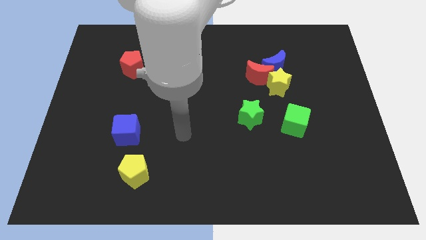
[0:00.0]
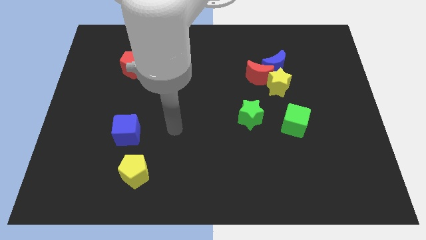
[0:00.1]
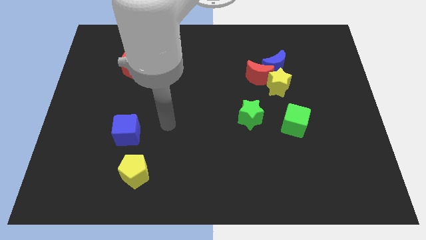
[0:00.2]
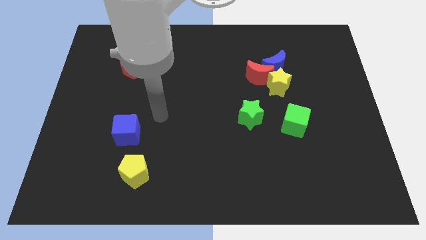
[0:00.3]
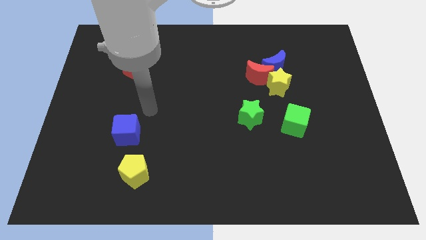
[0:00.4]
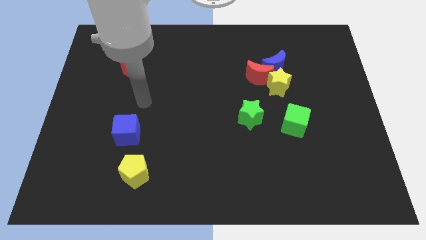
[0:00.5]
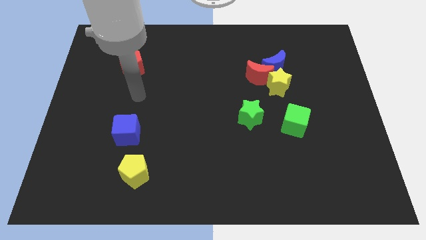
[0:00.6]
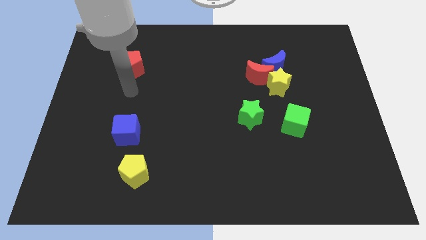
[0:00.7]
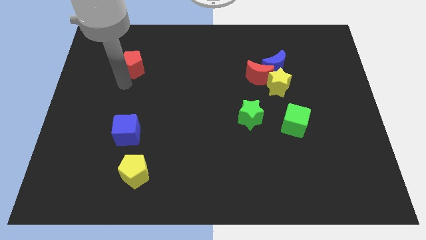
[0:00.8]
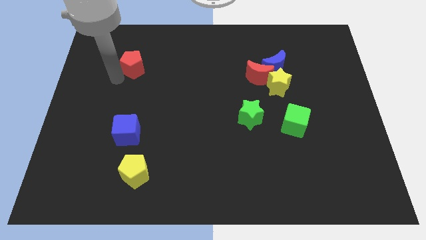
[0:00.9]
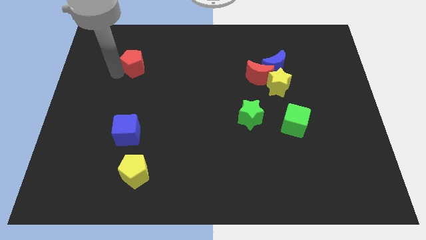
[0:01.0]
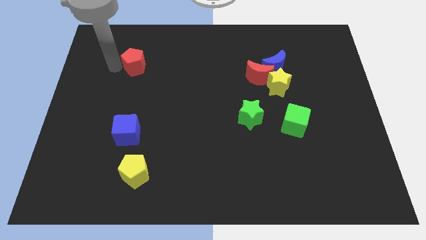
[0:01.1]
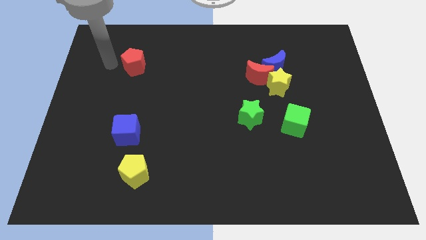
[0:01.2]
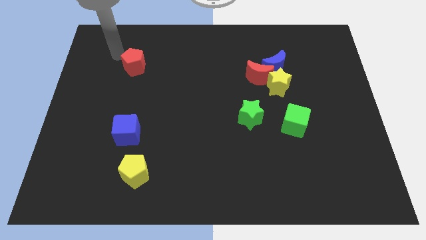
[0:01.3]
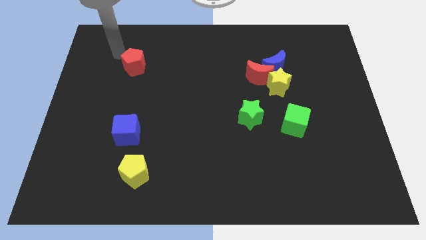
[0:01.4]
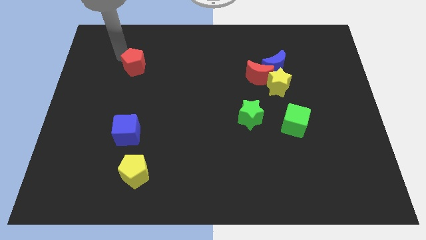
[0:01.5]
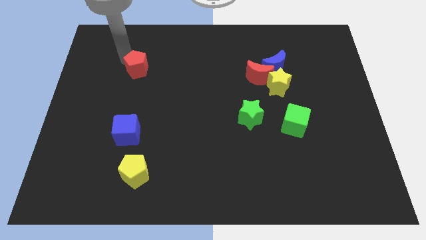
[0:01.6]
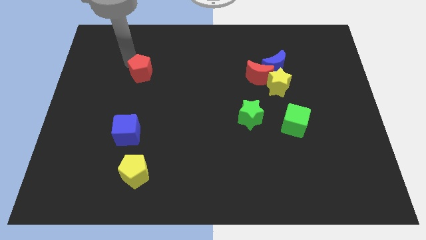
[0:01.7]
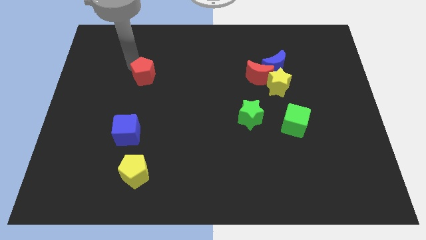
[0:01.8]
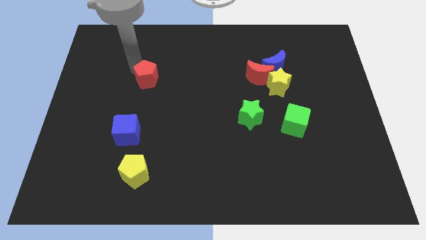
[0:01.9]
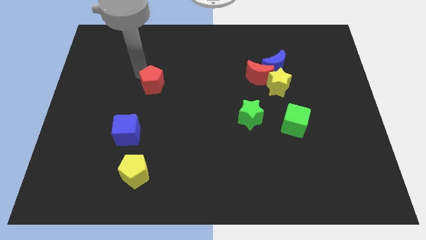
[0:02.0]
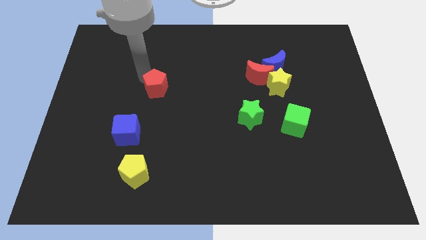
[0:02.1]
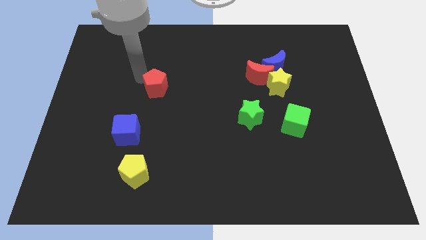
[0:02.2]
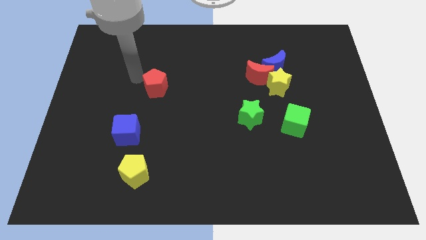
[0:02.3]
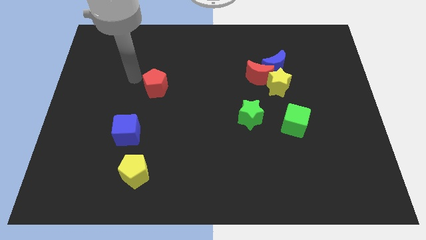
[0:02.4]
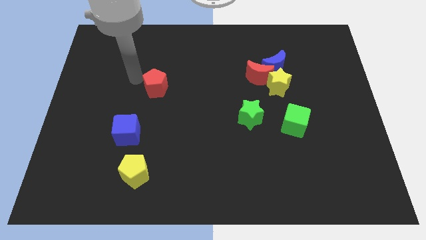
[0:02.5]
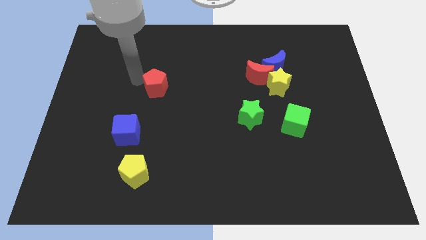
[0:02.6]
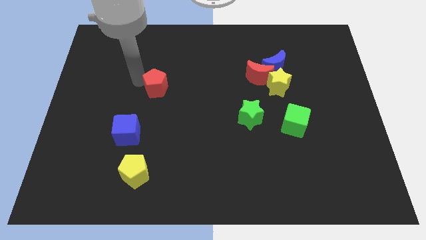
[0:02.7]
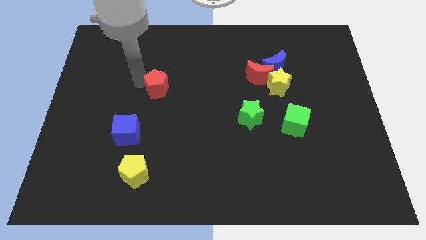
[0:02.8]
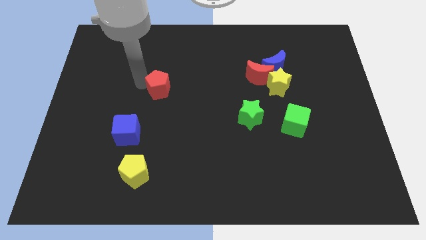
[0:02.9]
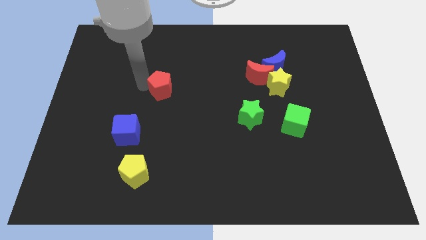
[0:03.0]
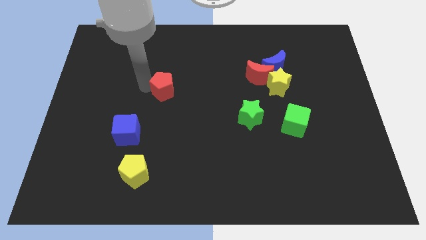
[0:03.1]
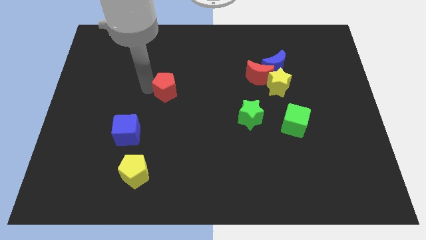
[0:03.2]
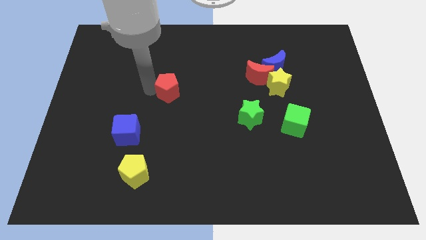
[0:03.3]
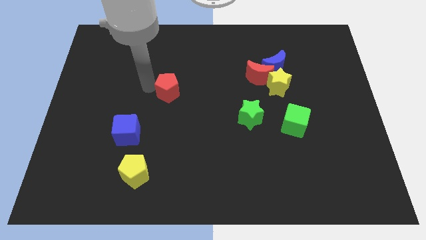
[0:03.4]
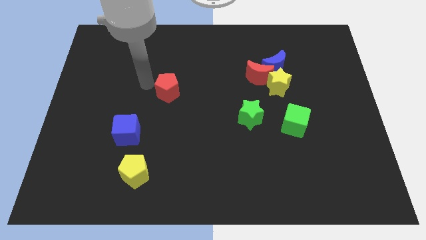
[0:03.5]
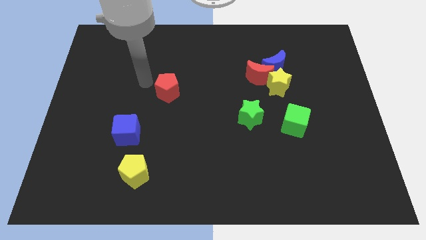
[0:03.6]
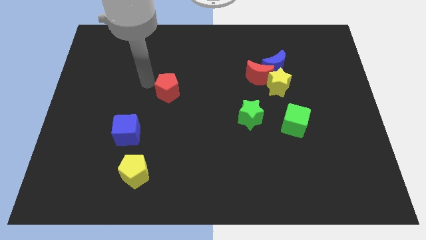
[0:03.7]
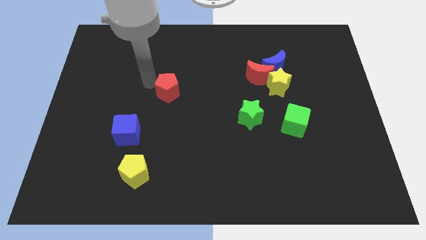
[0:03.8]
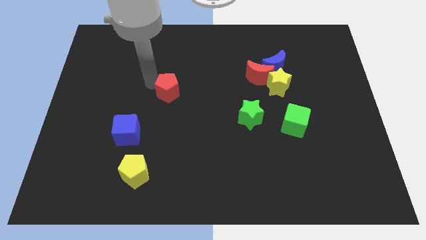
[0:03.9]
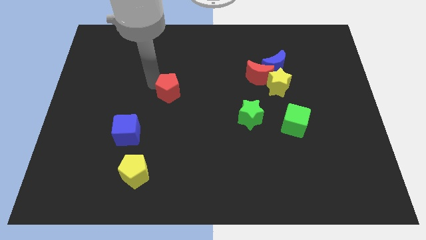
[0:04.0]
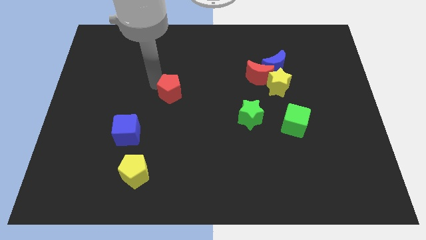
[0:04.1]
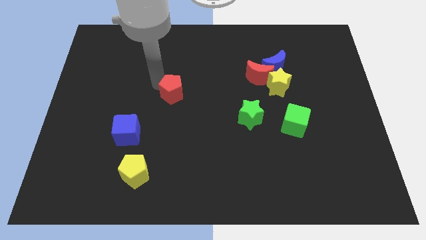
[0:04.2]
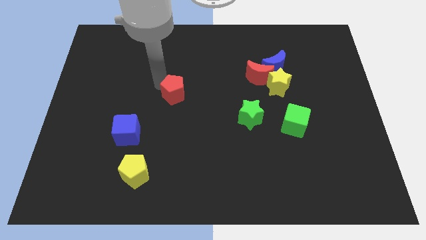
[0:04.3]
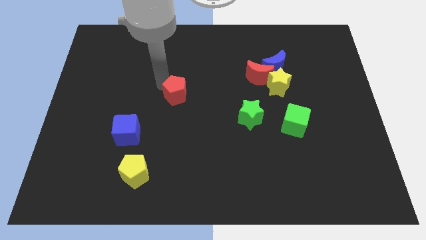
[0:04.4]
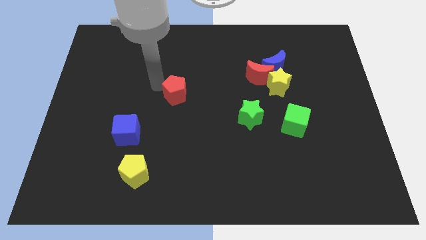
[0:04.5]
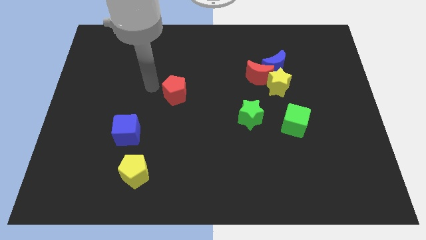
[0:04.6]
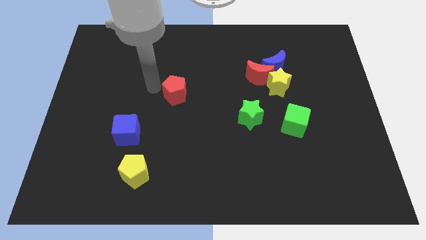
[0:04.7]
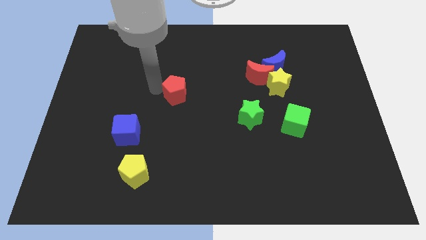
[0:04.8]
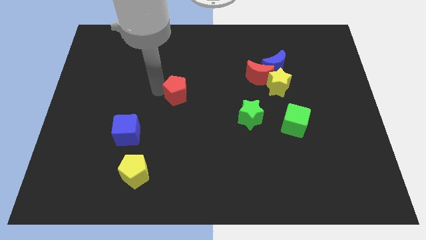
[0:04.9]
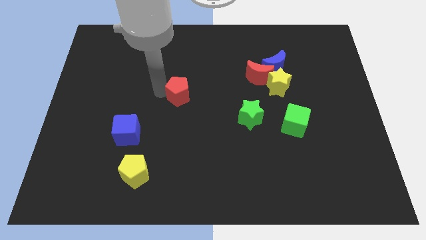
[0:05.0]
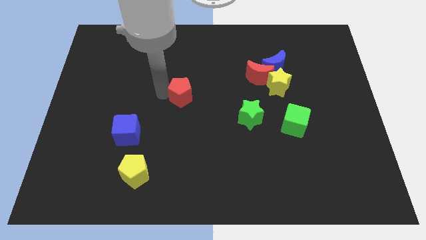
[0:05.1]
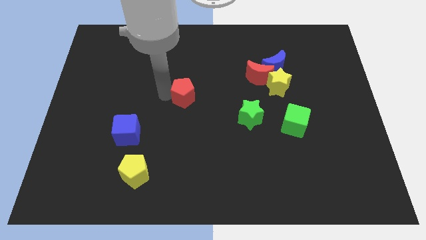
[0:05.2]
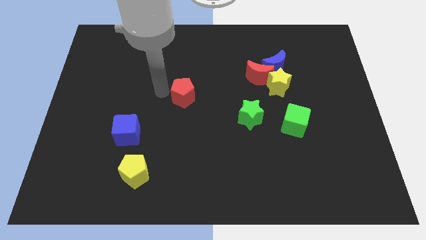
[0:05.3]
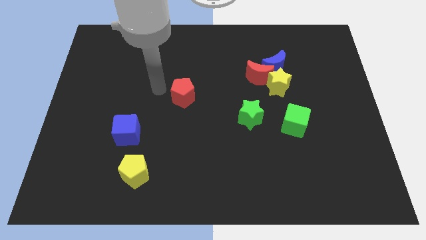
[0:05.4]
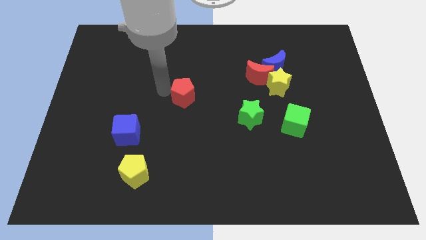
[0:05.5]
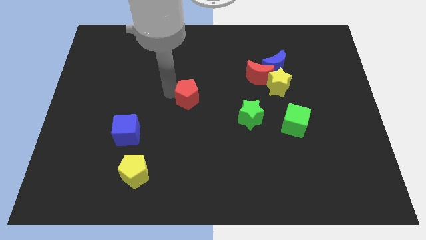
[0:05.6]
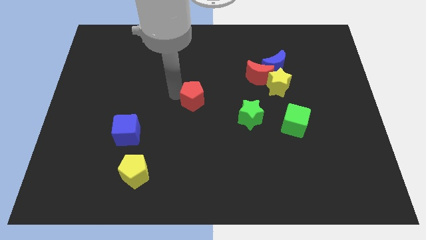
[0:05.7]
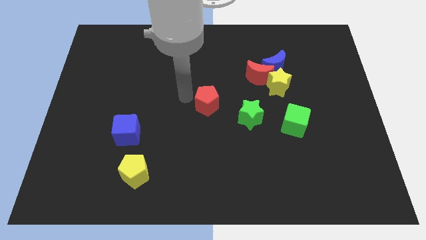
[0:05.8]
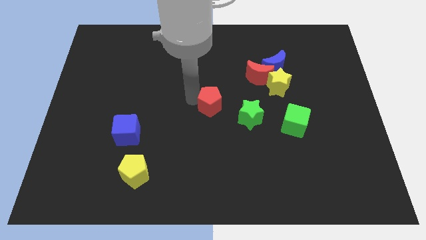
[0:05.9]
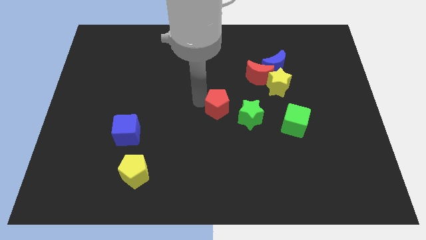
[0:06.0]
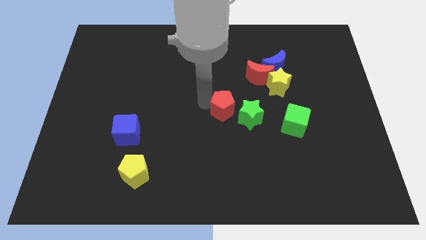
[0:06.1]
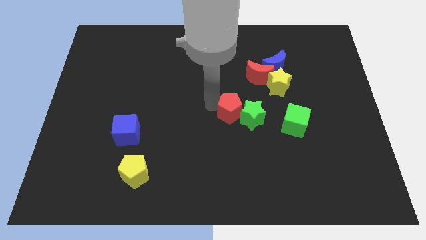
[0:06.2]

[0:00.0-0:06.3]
slide the red pentagon close to the green star
